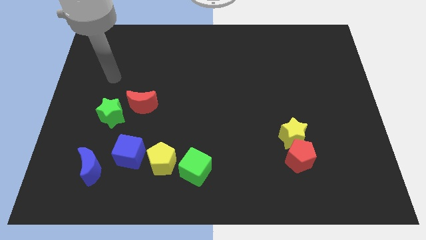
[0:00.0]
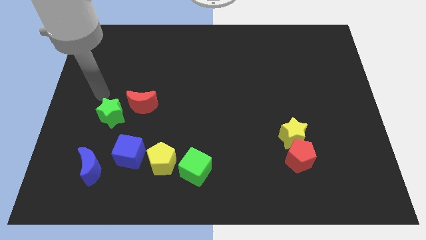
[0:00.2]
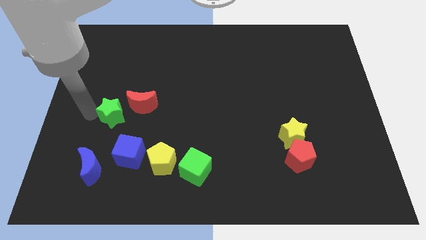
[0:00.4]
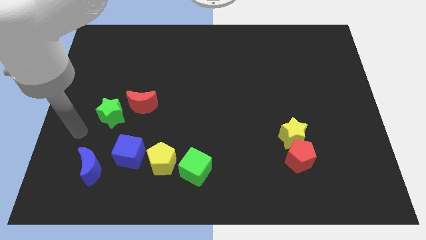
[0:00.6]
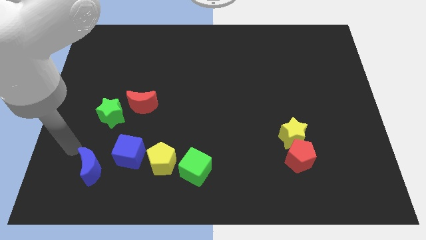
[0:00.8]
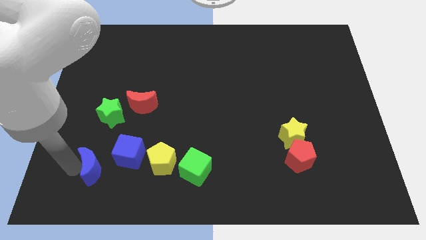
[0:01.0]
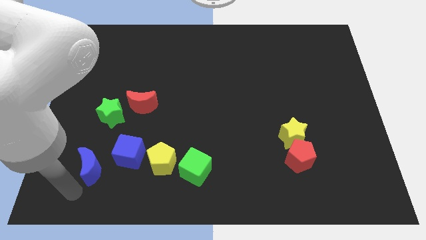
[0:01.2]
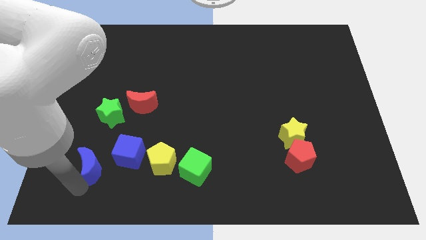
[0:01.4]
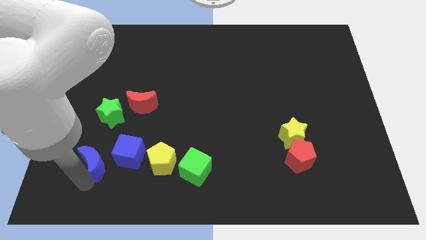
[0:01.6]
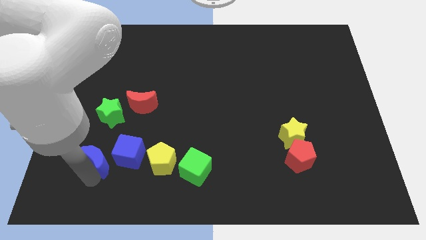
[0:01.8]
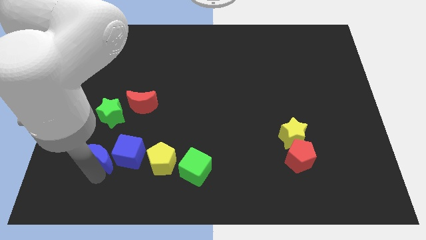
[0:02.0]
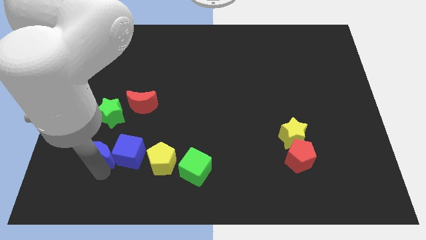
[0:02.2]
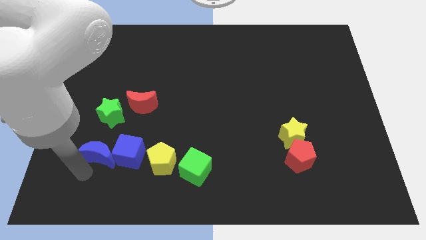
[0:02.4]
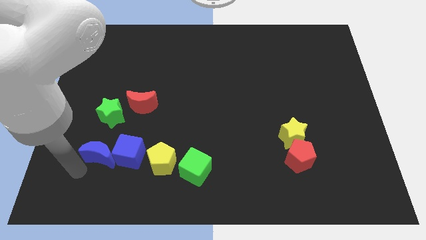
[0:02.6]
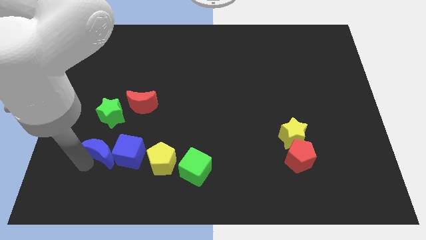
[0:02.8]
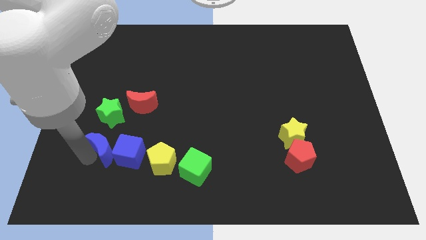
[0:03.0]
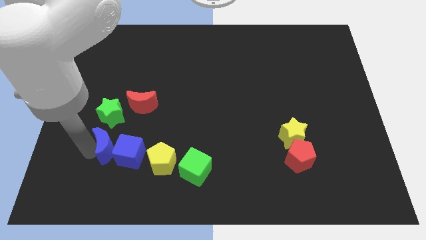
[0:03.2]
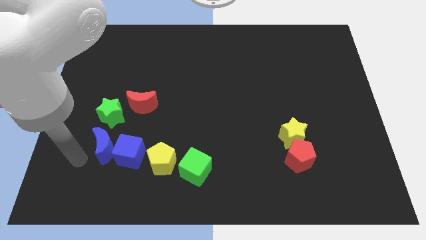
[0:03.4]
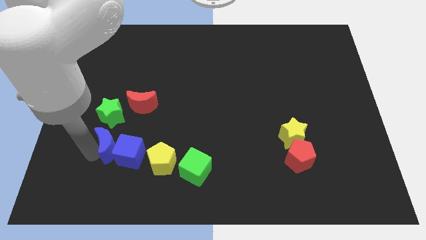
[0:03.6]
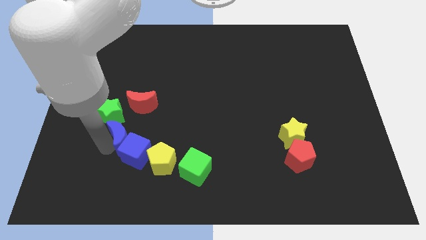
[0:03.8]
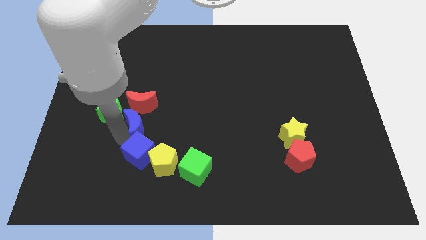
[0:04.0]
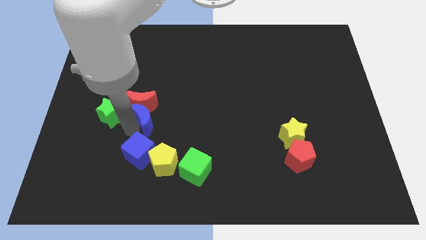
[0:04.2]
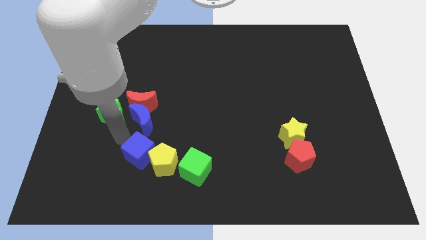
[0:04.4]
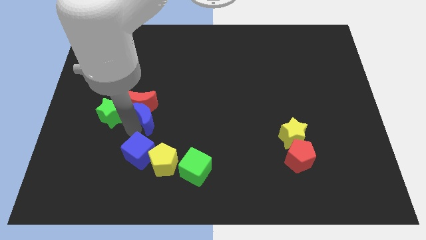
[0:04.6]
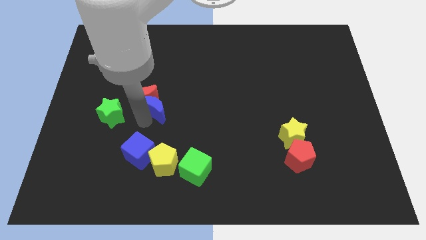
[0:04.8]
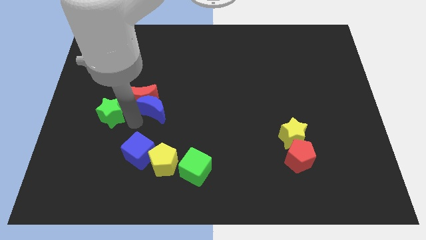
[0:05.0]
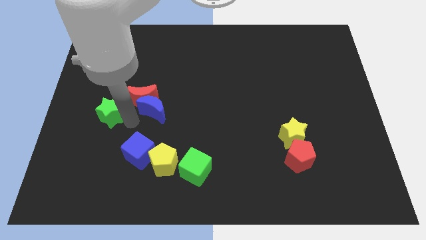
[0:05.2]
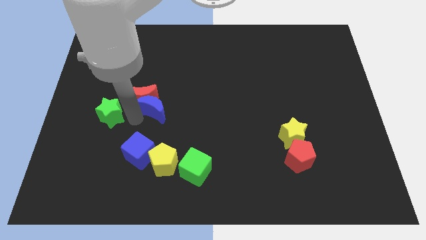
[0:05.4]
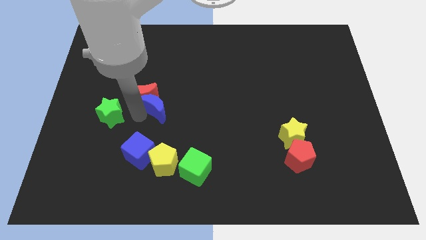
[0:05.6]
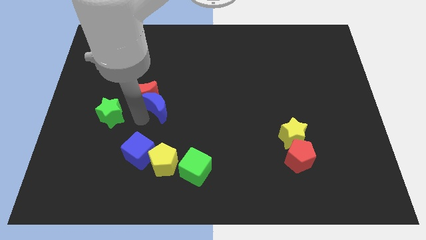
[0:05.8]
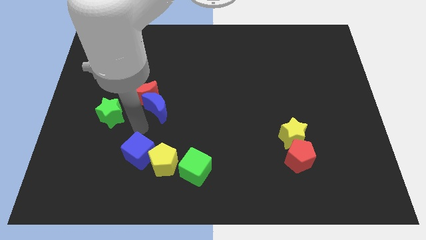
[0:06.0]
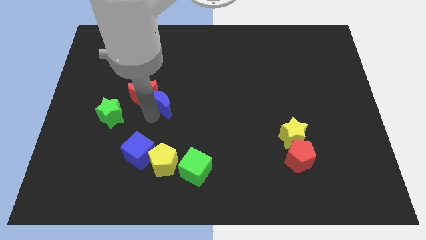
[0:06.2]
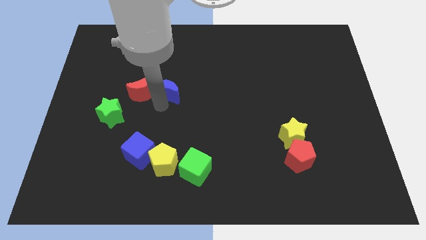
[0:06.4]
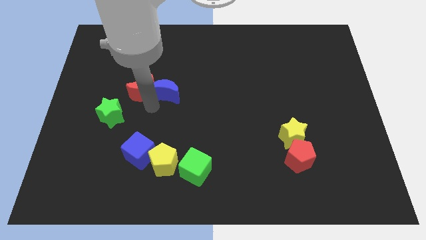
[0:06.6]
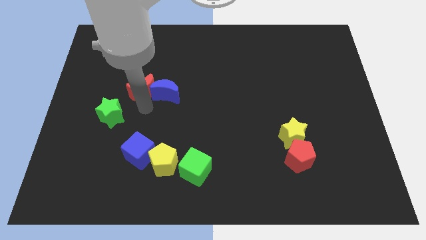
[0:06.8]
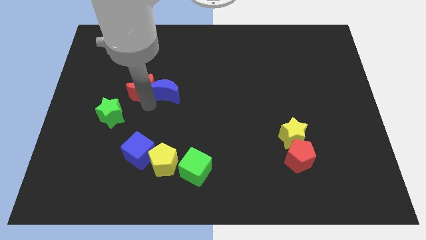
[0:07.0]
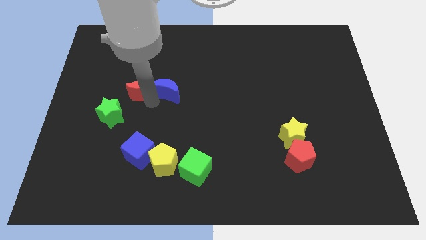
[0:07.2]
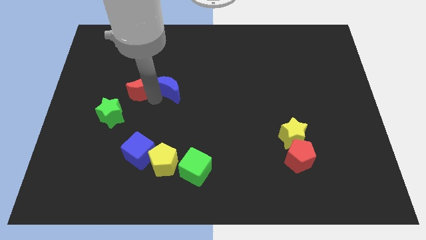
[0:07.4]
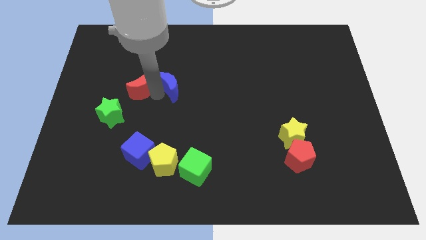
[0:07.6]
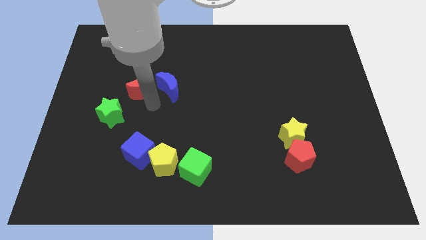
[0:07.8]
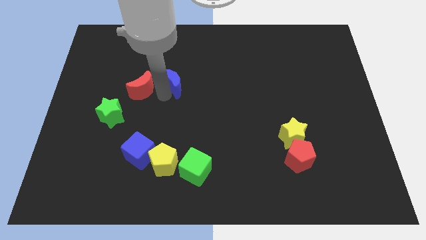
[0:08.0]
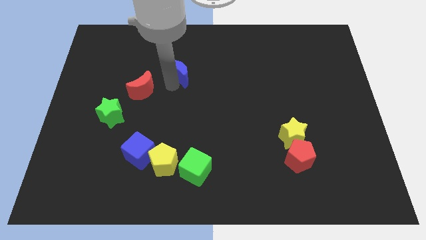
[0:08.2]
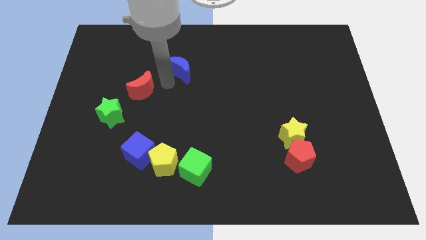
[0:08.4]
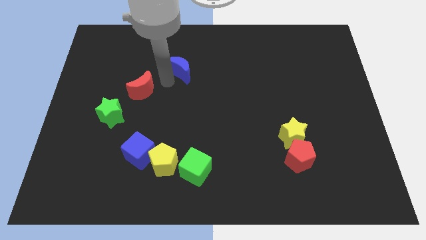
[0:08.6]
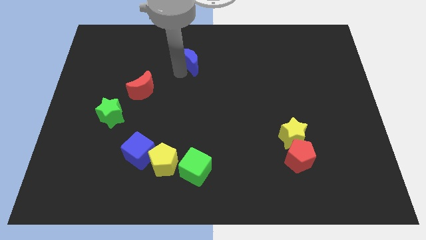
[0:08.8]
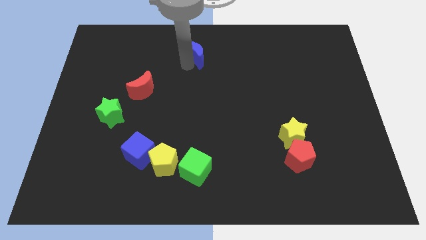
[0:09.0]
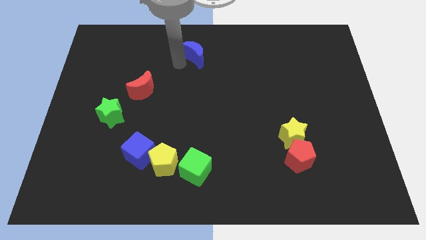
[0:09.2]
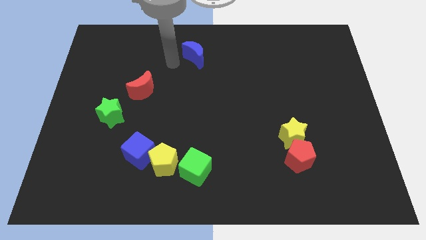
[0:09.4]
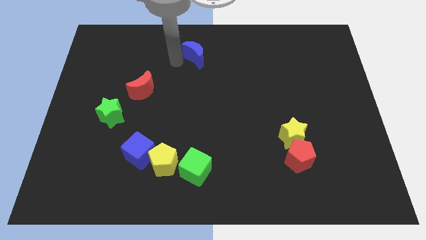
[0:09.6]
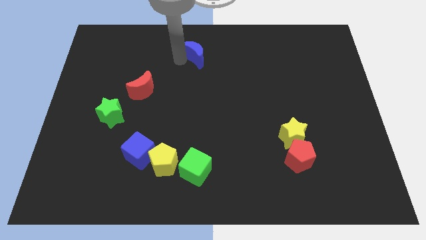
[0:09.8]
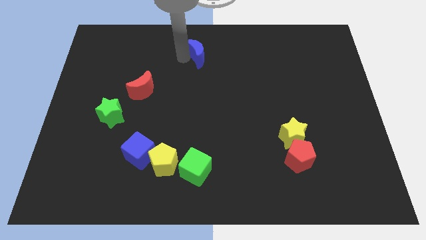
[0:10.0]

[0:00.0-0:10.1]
put the blue moon to the towards your base

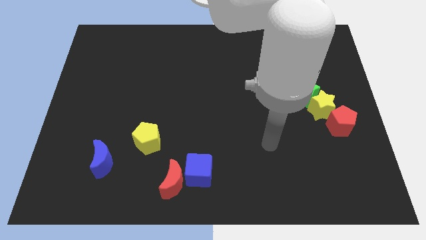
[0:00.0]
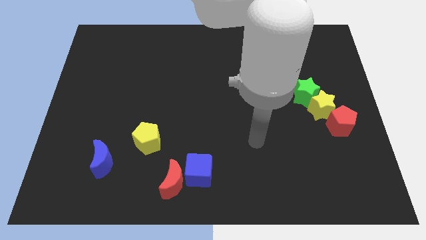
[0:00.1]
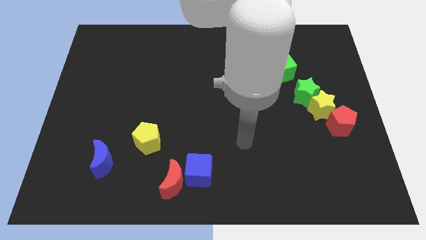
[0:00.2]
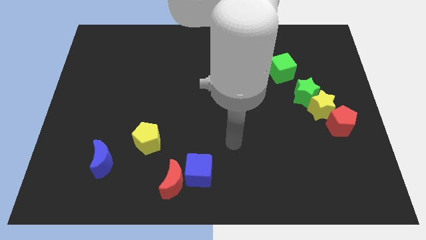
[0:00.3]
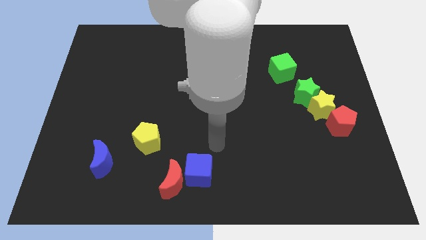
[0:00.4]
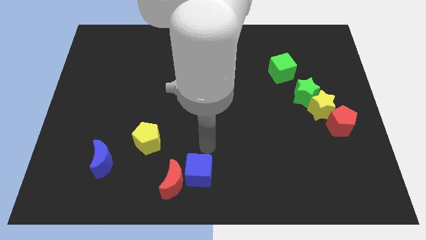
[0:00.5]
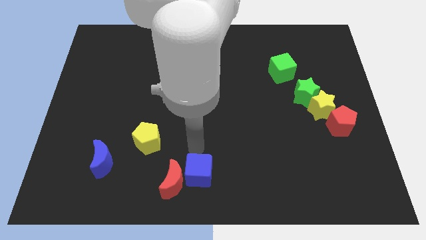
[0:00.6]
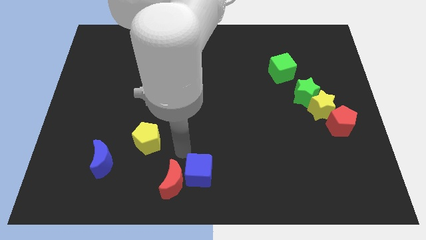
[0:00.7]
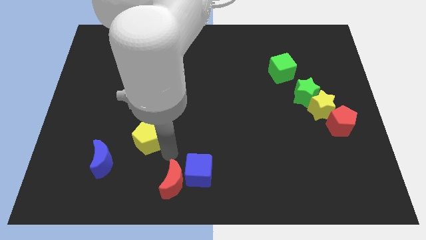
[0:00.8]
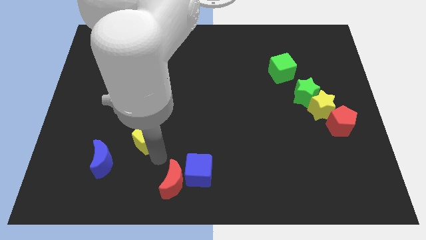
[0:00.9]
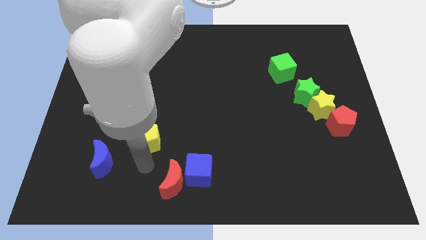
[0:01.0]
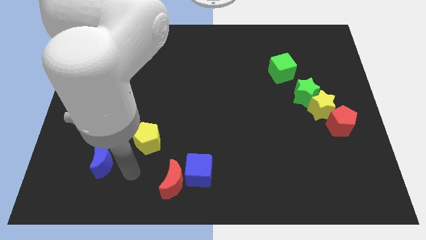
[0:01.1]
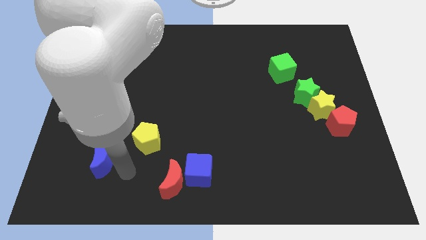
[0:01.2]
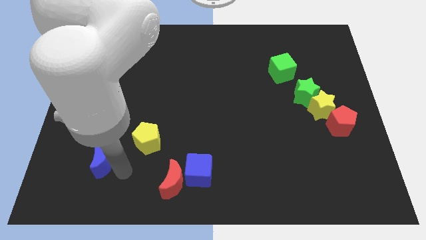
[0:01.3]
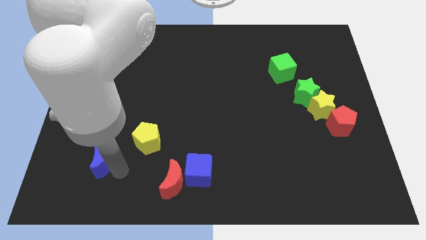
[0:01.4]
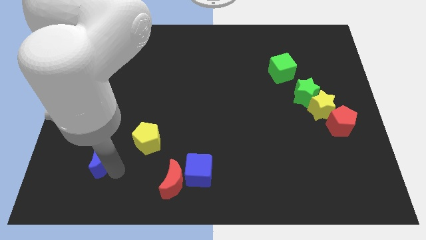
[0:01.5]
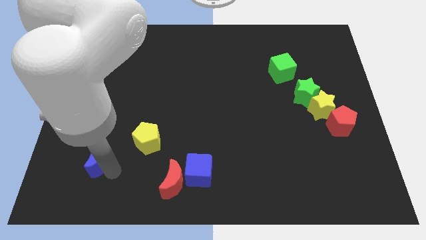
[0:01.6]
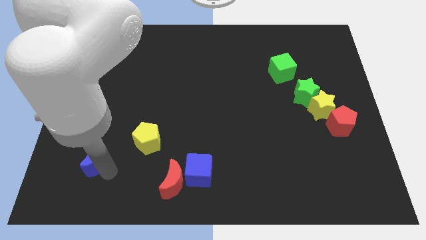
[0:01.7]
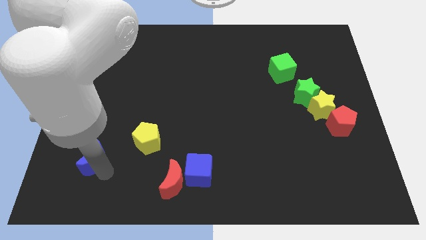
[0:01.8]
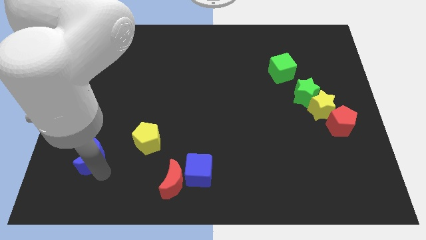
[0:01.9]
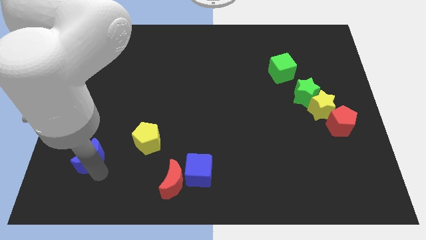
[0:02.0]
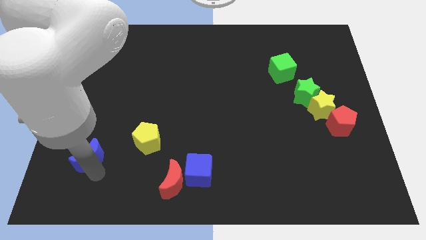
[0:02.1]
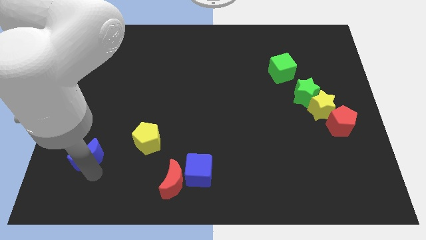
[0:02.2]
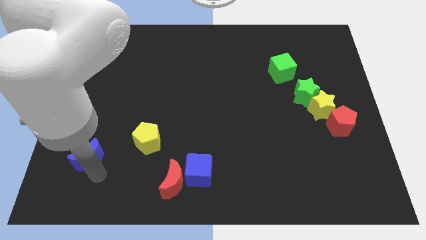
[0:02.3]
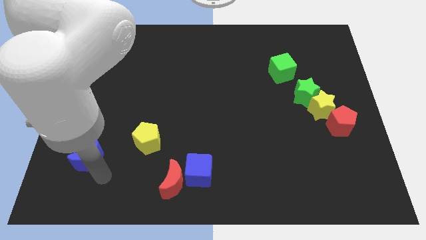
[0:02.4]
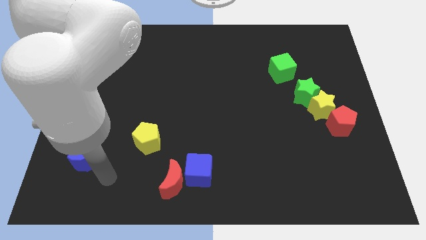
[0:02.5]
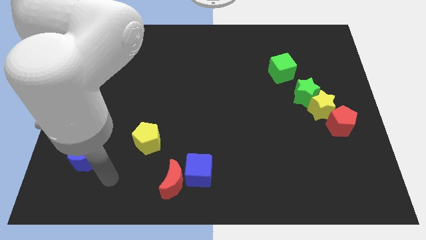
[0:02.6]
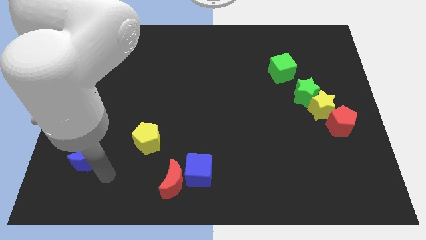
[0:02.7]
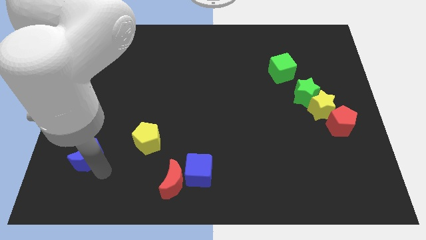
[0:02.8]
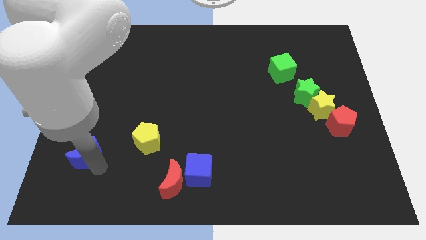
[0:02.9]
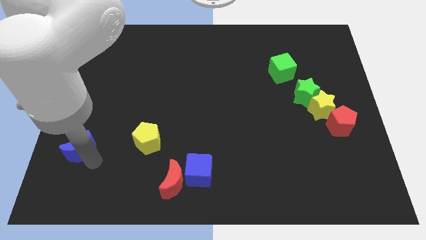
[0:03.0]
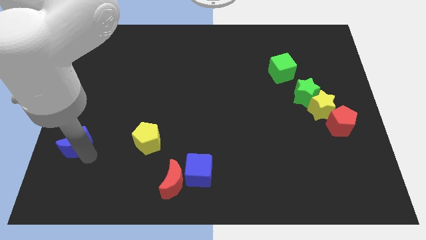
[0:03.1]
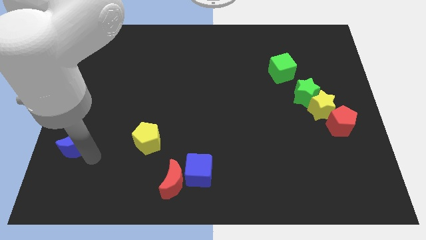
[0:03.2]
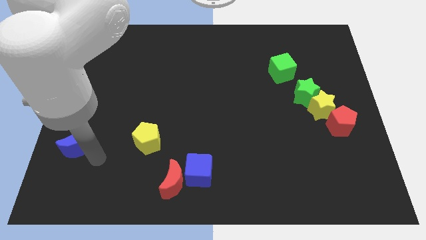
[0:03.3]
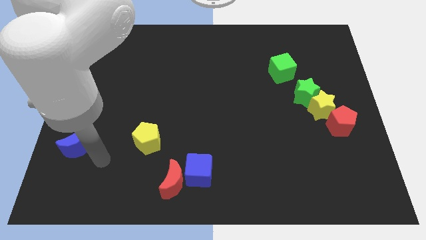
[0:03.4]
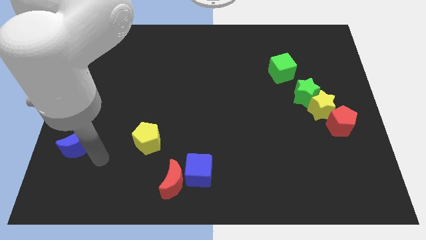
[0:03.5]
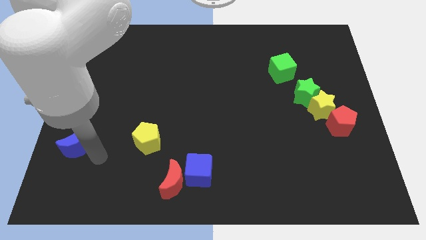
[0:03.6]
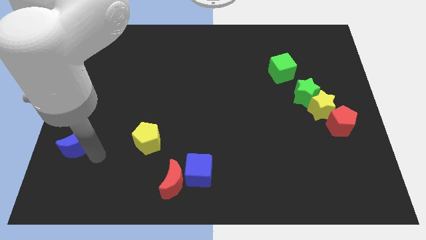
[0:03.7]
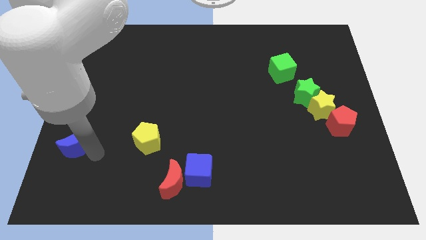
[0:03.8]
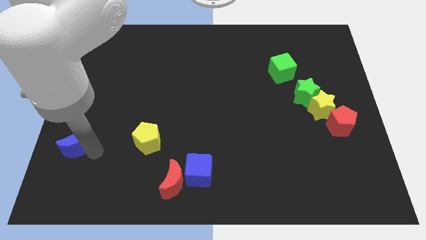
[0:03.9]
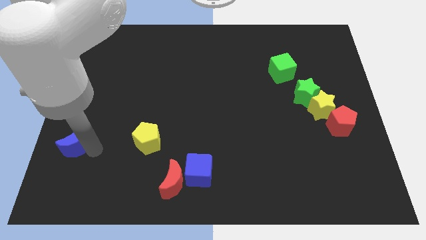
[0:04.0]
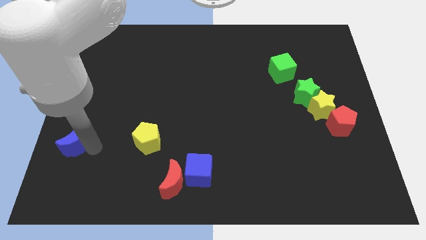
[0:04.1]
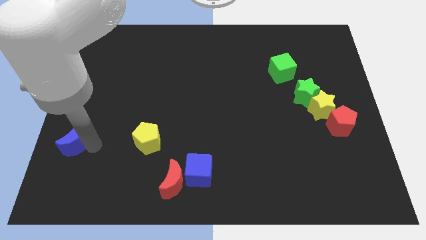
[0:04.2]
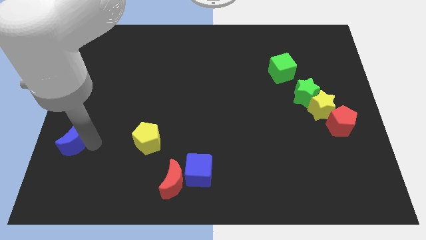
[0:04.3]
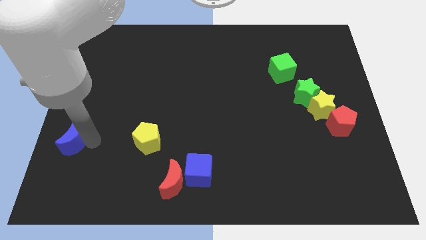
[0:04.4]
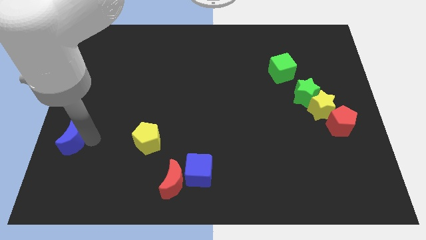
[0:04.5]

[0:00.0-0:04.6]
slide the blue moon to the center left
